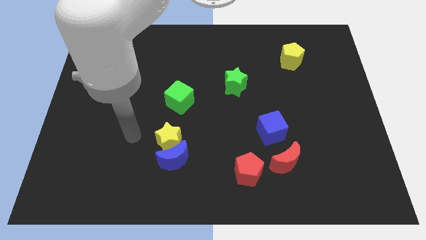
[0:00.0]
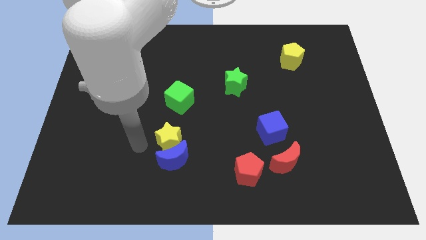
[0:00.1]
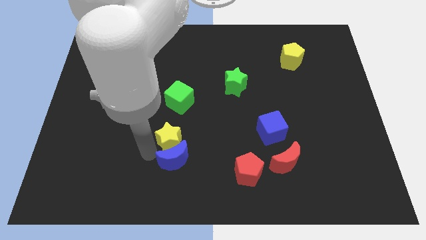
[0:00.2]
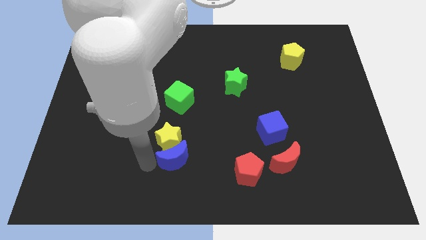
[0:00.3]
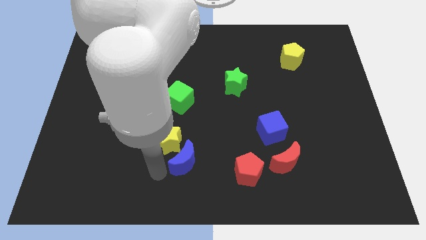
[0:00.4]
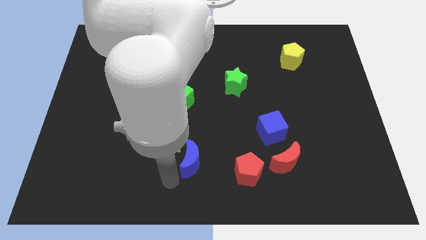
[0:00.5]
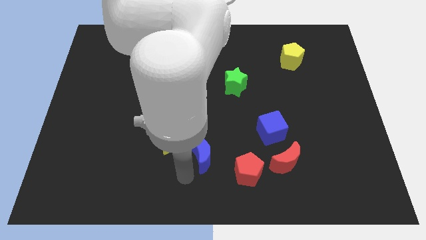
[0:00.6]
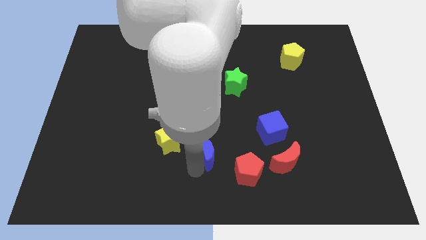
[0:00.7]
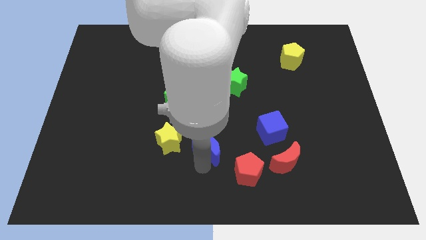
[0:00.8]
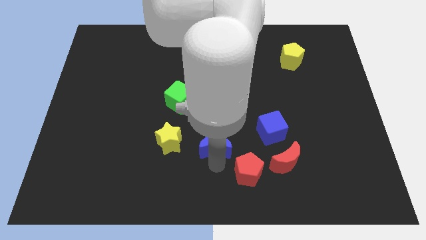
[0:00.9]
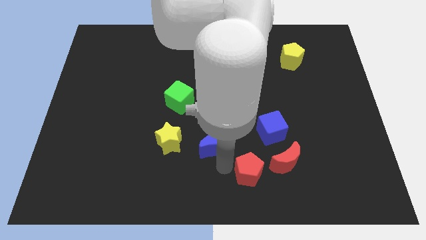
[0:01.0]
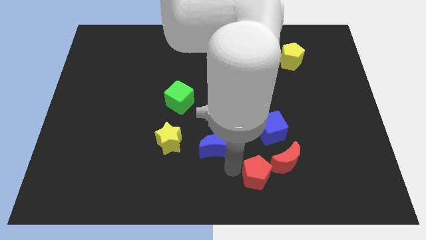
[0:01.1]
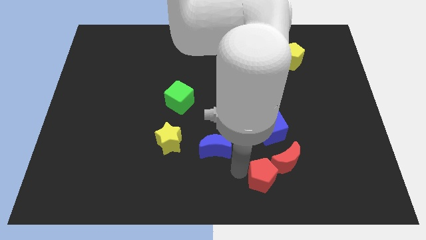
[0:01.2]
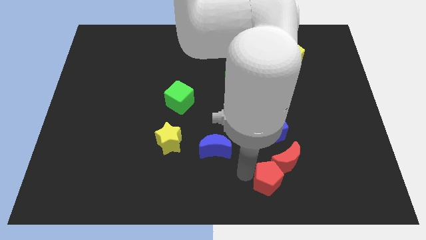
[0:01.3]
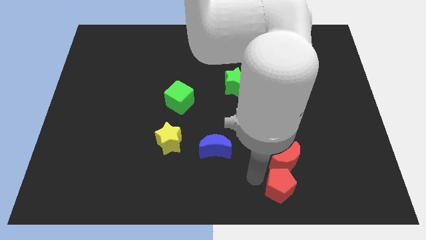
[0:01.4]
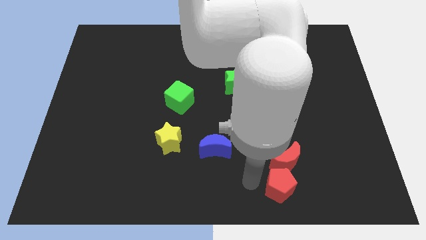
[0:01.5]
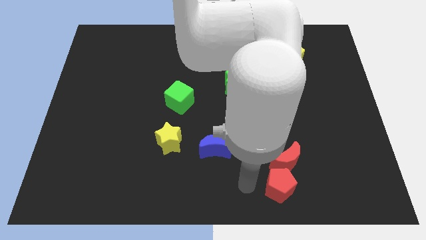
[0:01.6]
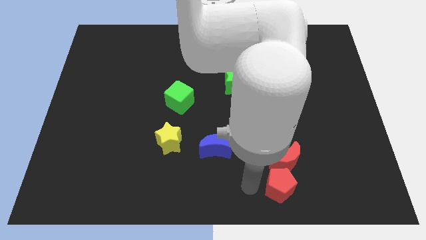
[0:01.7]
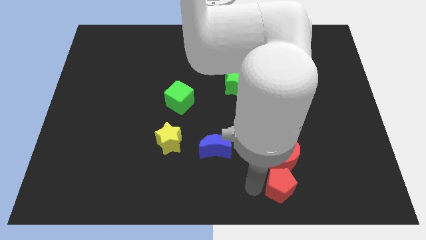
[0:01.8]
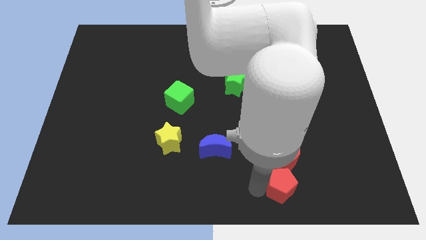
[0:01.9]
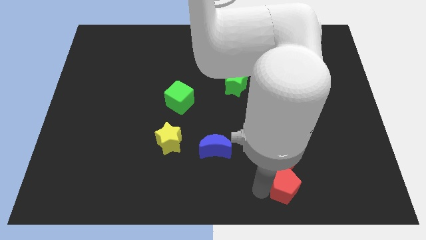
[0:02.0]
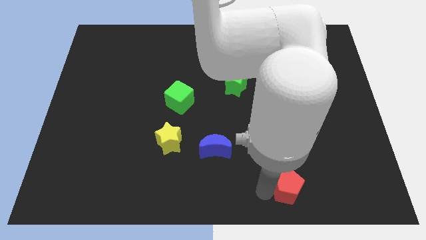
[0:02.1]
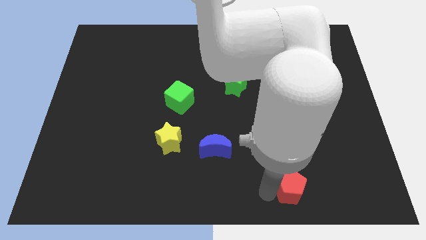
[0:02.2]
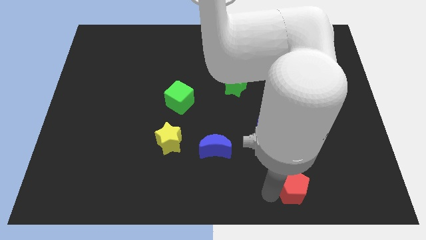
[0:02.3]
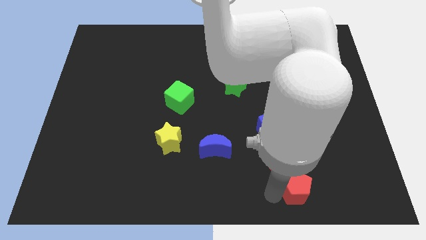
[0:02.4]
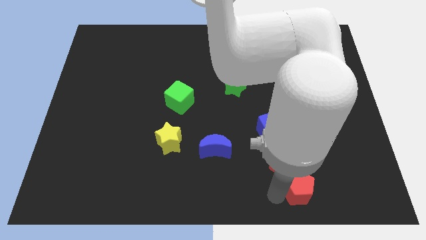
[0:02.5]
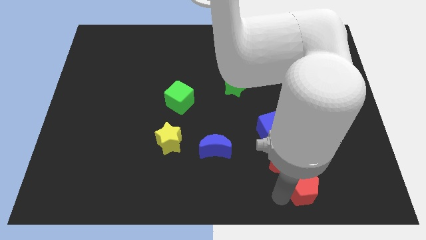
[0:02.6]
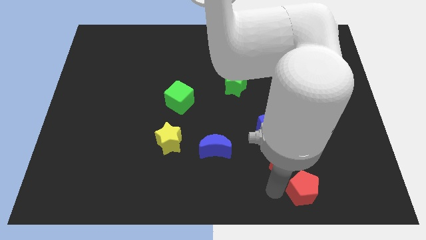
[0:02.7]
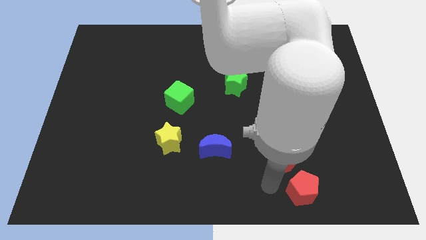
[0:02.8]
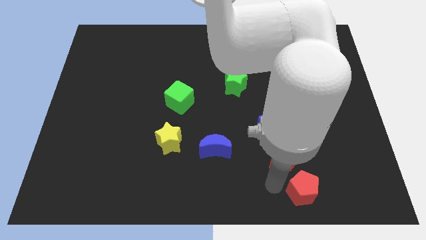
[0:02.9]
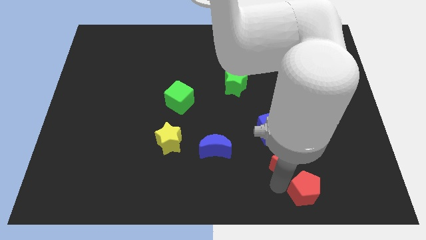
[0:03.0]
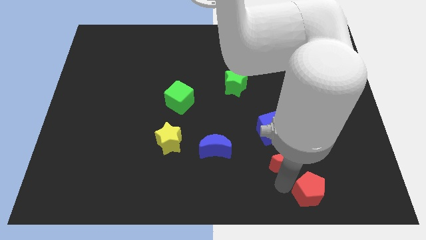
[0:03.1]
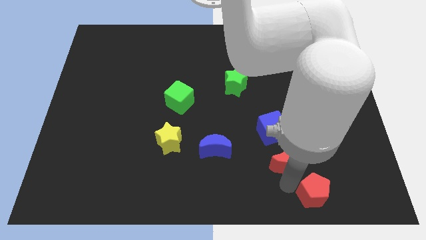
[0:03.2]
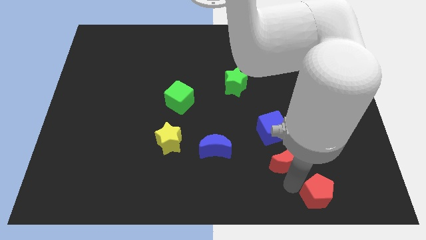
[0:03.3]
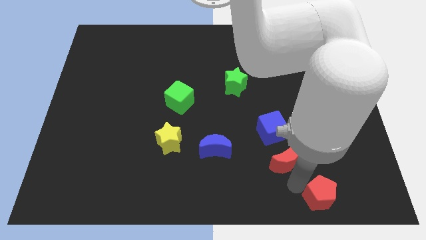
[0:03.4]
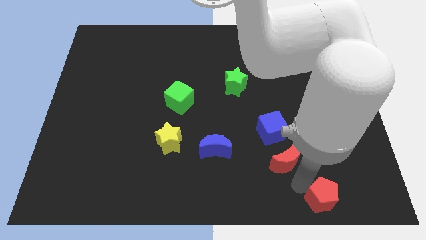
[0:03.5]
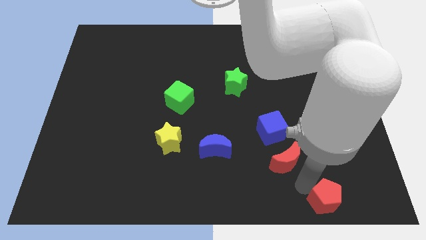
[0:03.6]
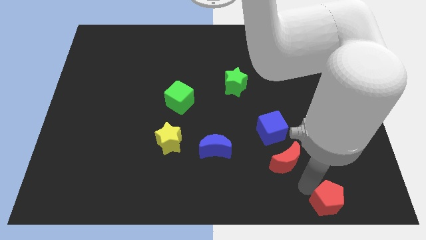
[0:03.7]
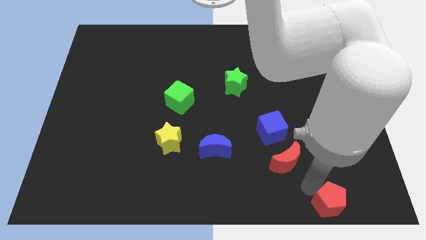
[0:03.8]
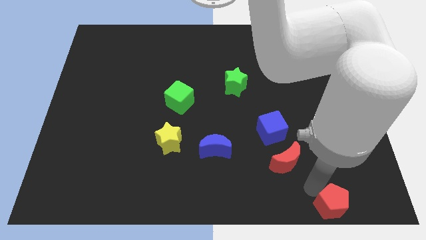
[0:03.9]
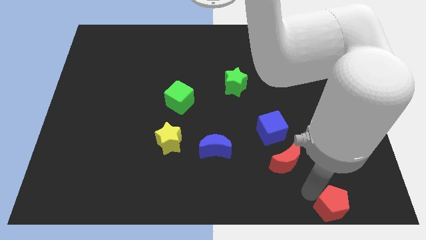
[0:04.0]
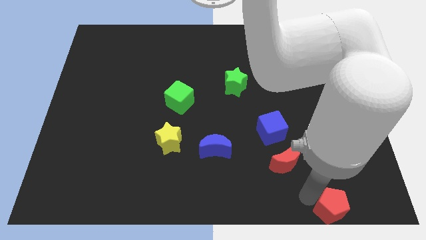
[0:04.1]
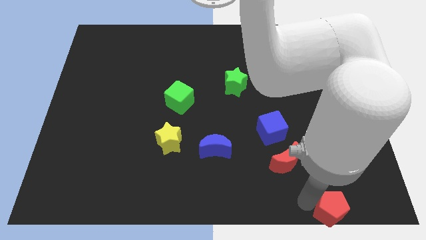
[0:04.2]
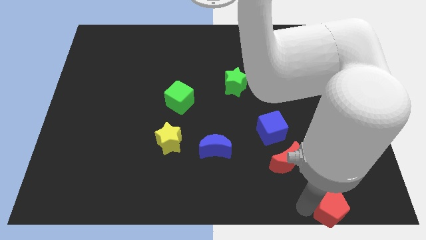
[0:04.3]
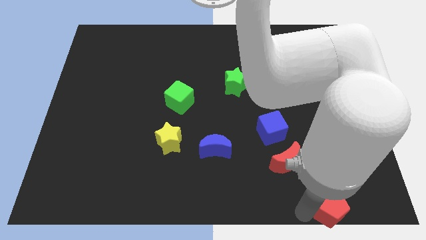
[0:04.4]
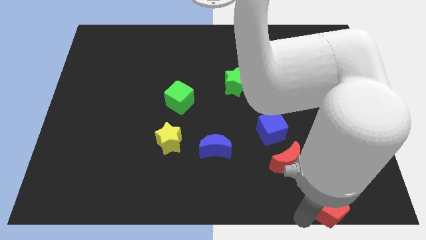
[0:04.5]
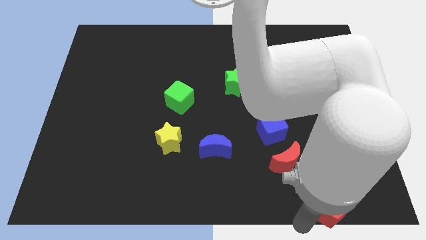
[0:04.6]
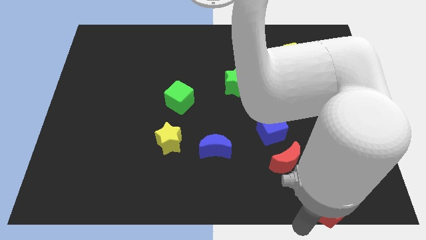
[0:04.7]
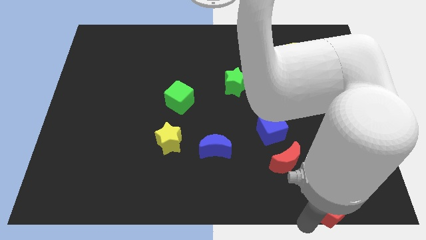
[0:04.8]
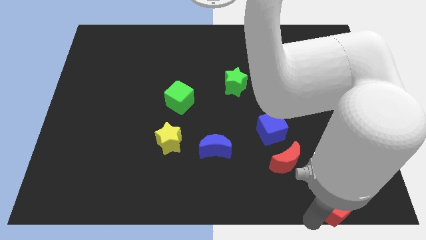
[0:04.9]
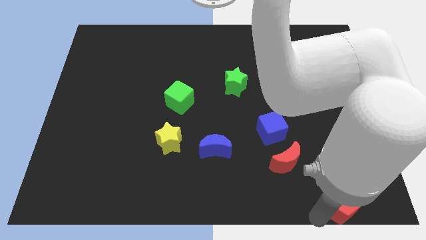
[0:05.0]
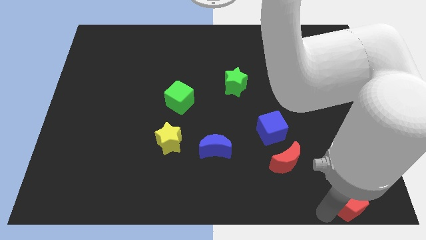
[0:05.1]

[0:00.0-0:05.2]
push the red pentagon to the bottom right
